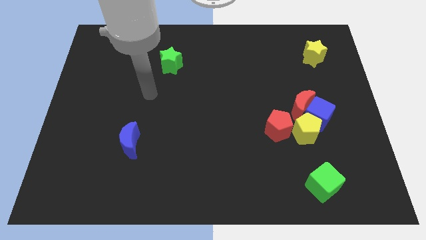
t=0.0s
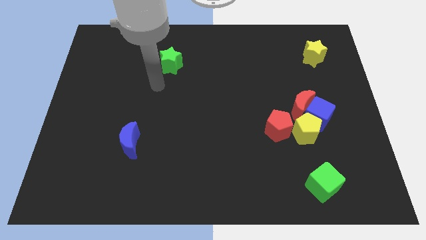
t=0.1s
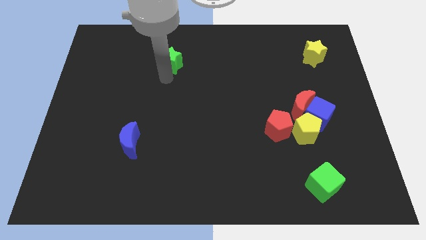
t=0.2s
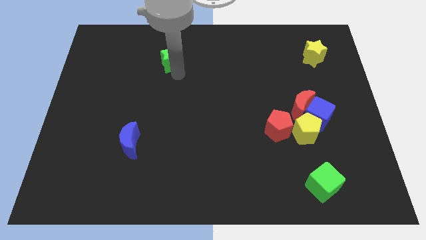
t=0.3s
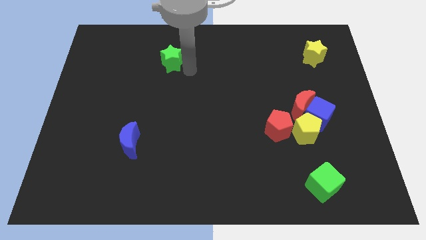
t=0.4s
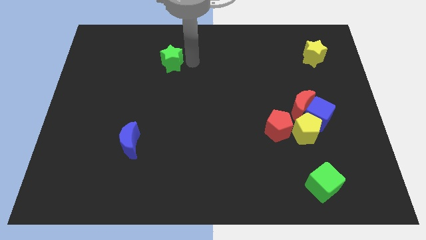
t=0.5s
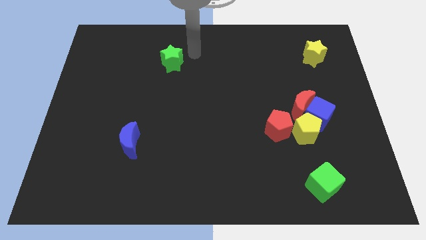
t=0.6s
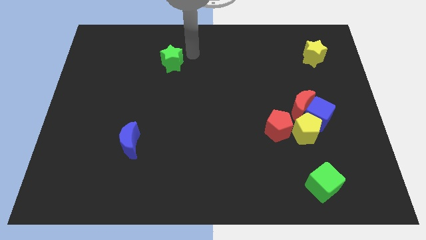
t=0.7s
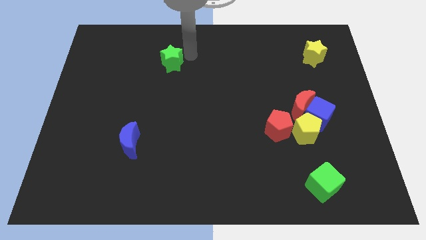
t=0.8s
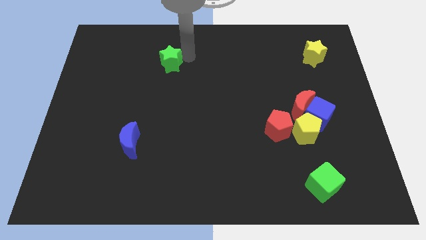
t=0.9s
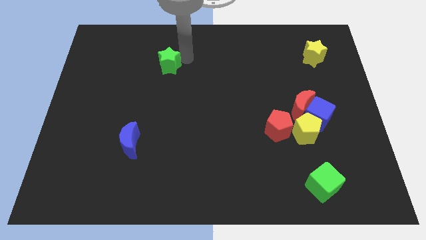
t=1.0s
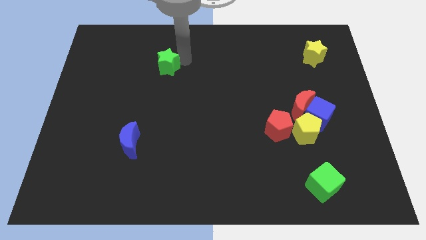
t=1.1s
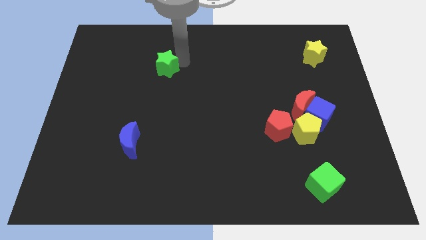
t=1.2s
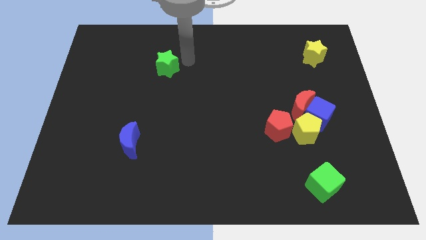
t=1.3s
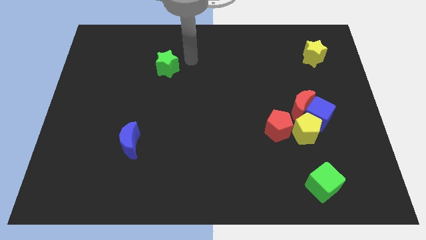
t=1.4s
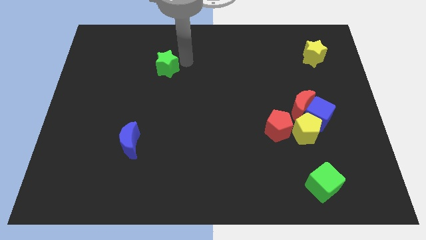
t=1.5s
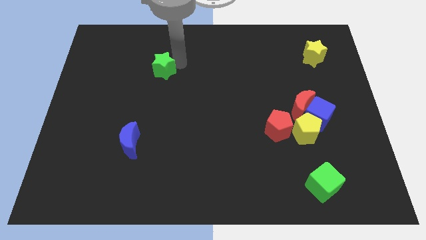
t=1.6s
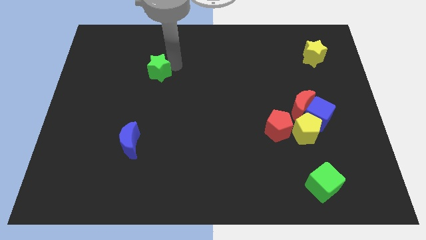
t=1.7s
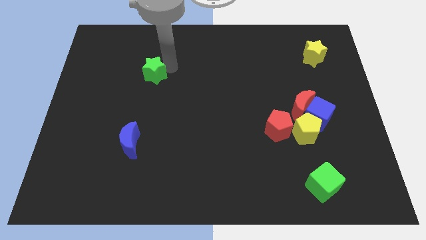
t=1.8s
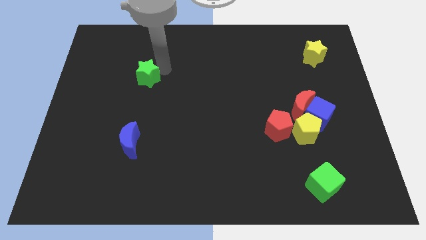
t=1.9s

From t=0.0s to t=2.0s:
slightly move the green star downwards and left

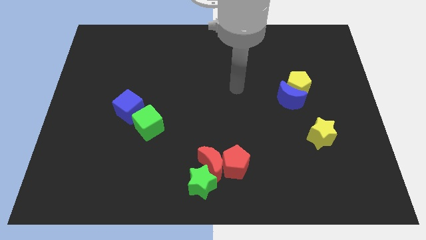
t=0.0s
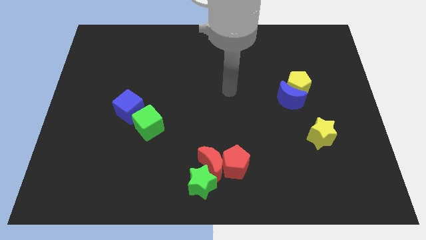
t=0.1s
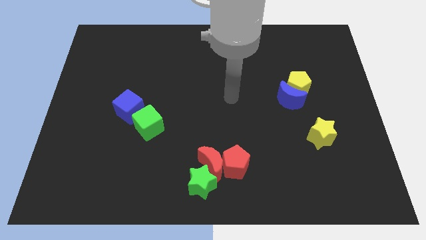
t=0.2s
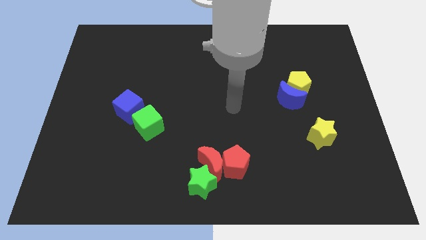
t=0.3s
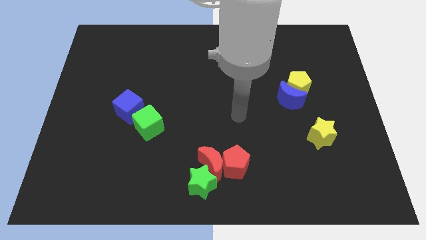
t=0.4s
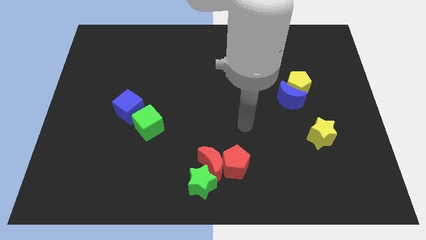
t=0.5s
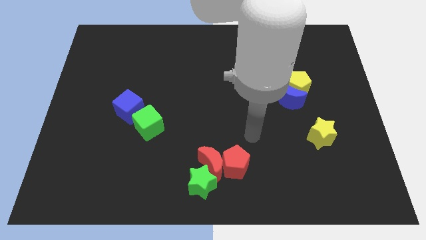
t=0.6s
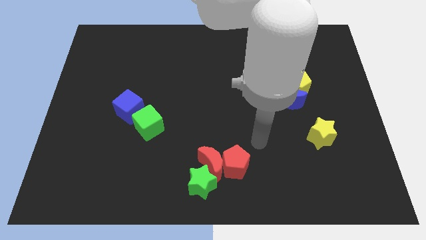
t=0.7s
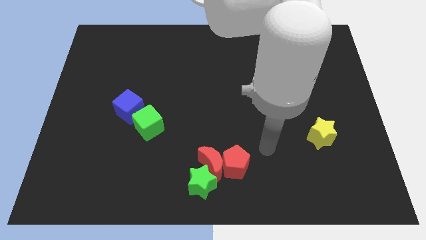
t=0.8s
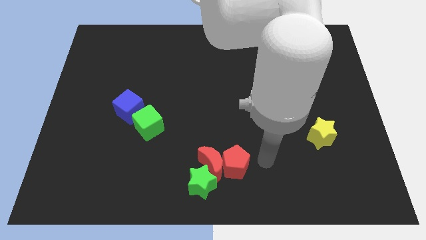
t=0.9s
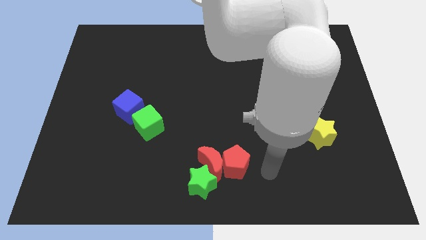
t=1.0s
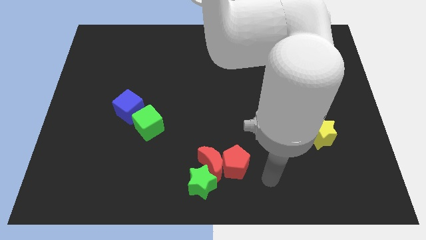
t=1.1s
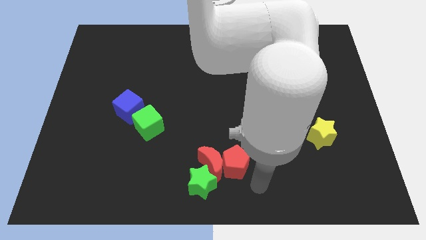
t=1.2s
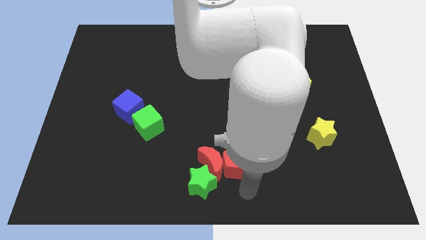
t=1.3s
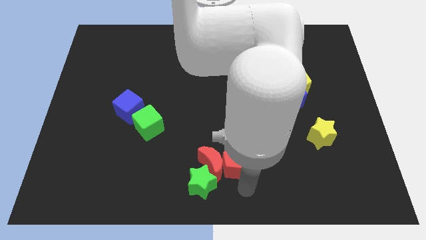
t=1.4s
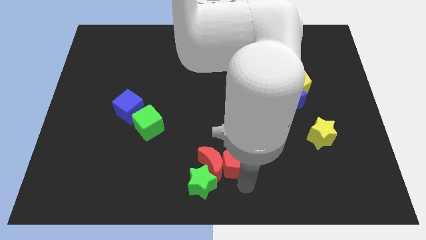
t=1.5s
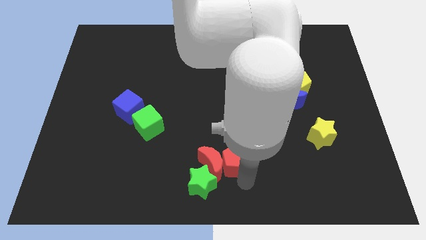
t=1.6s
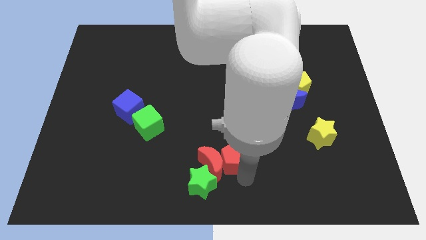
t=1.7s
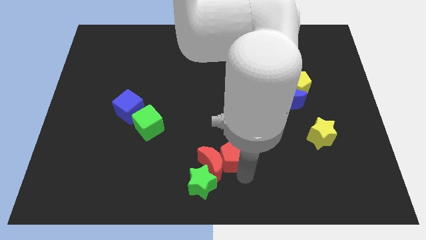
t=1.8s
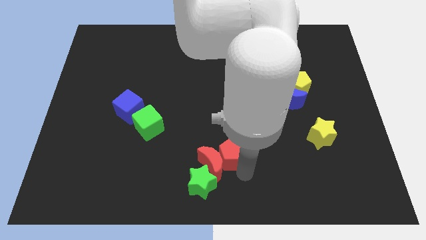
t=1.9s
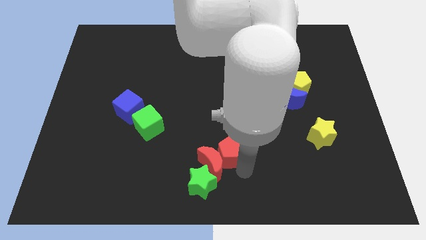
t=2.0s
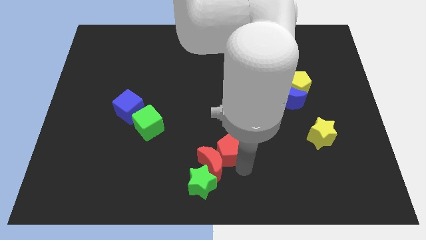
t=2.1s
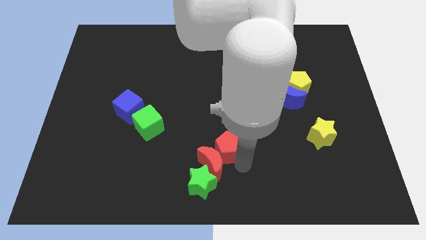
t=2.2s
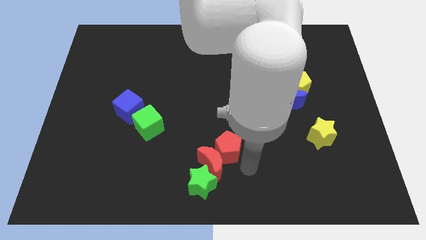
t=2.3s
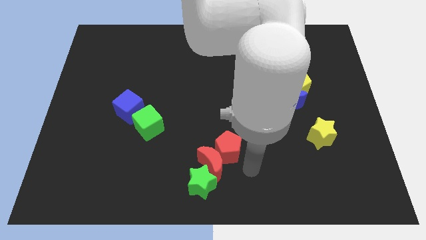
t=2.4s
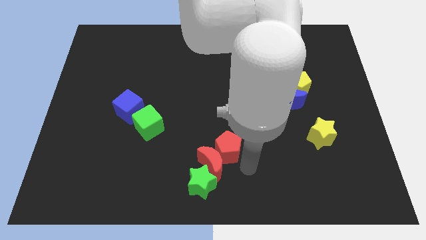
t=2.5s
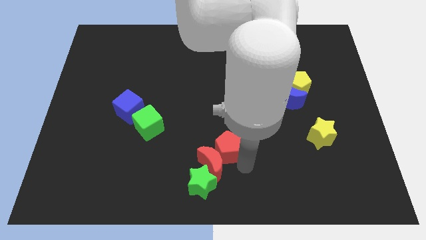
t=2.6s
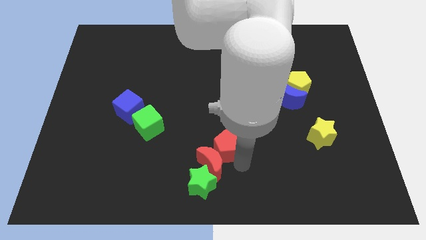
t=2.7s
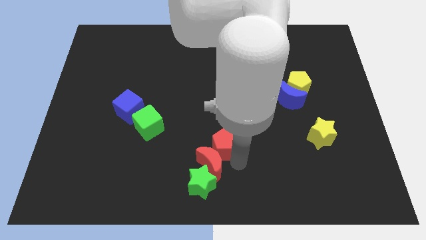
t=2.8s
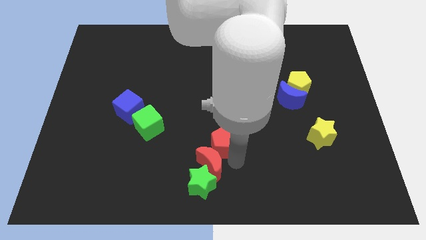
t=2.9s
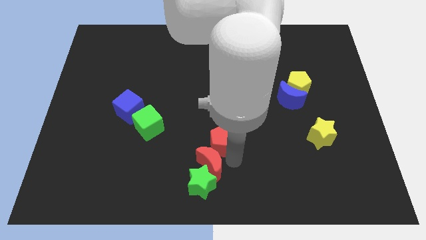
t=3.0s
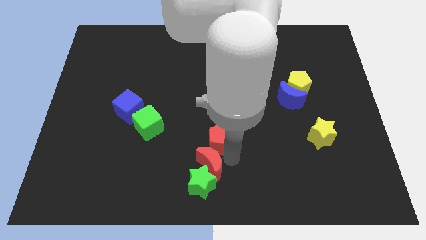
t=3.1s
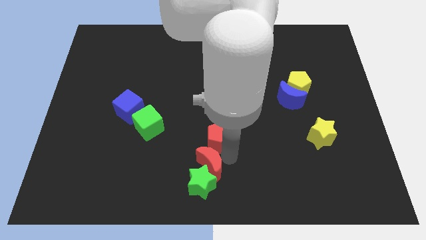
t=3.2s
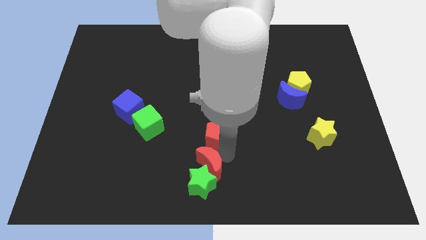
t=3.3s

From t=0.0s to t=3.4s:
slide the red pentagon slightly diagonally upwards and to the left

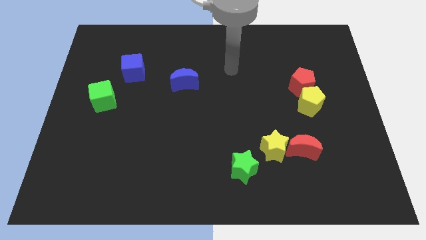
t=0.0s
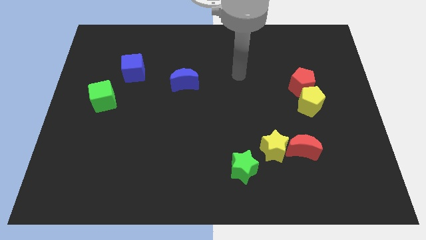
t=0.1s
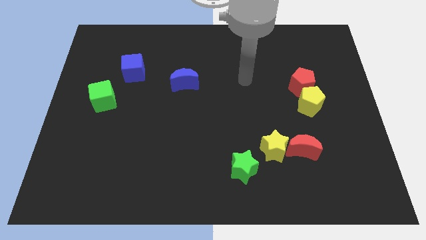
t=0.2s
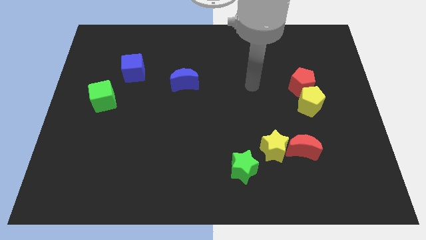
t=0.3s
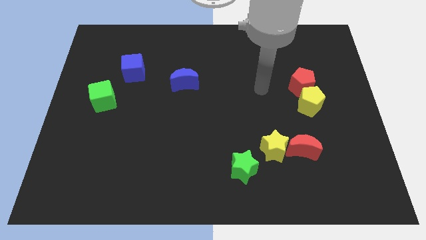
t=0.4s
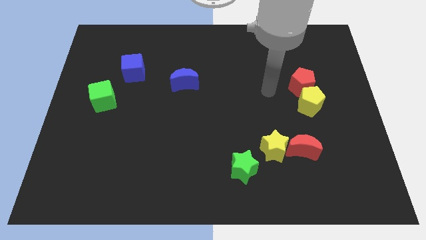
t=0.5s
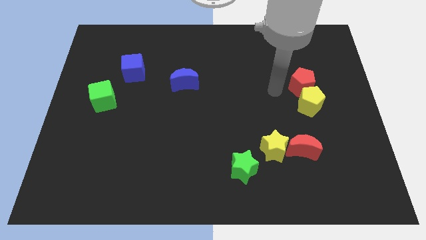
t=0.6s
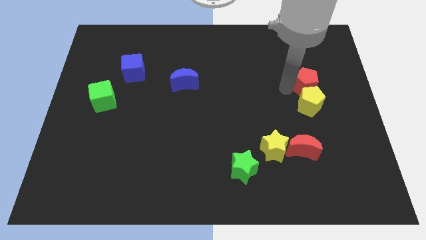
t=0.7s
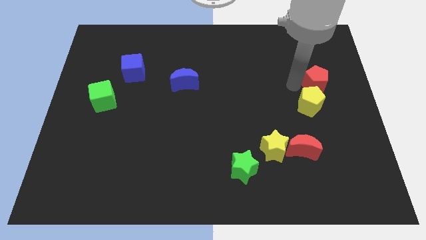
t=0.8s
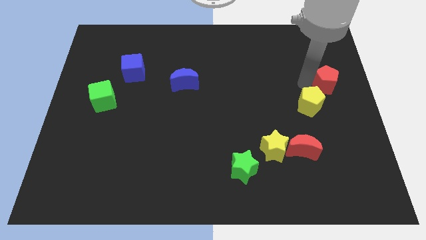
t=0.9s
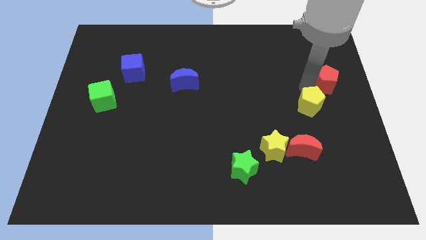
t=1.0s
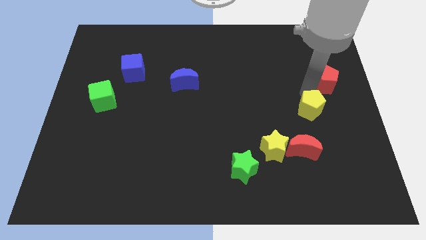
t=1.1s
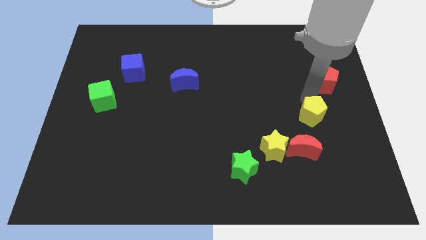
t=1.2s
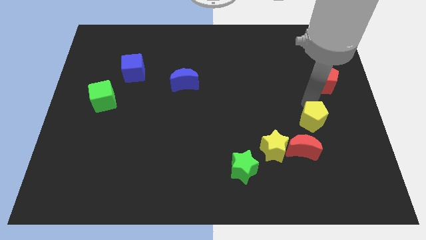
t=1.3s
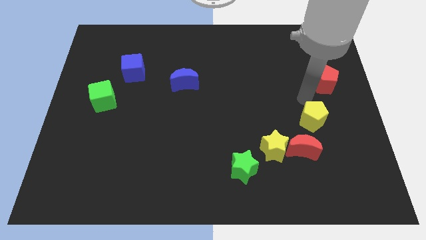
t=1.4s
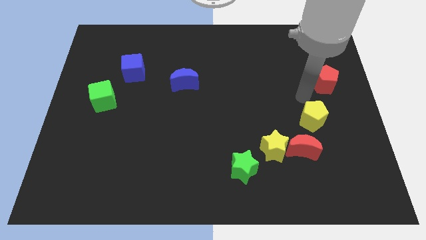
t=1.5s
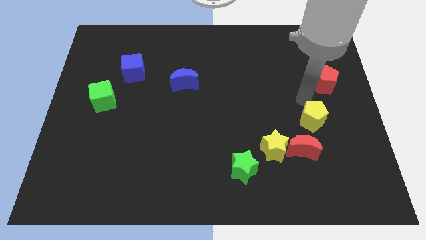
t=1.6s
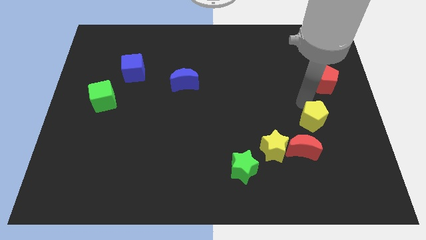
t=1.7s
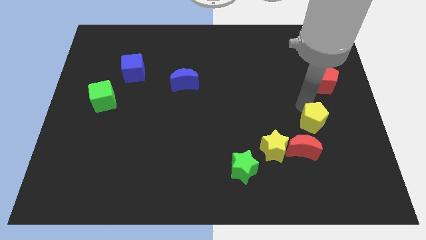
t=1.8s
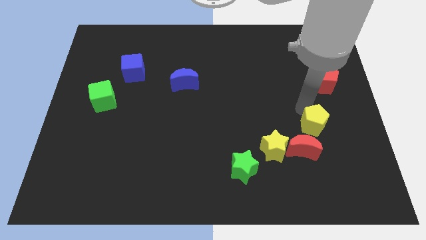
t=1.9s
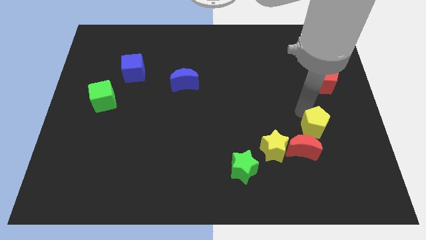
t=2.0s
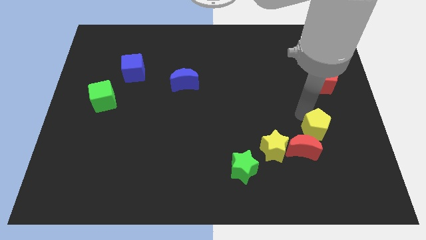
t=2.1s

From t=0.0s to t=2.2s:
slightly push the yellow pentagon downwards

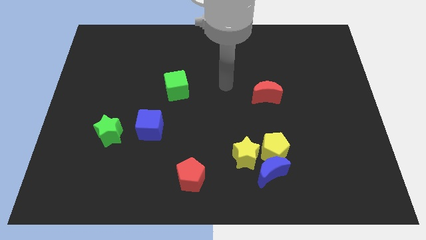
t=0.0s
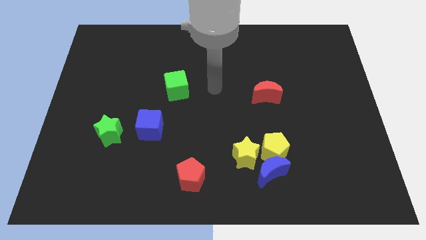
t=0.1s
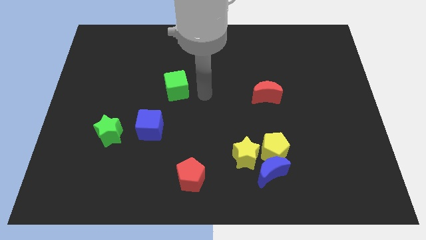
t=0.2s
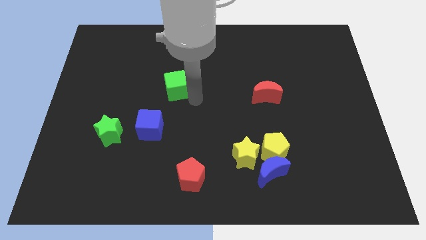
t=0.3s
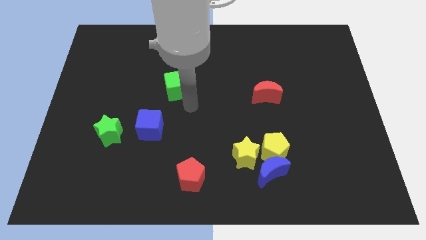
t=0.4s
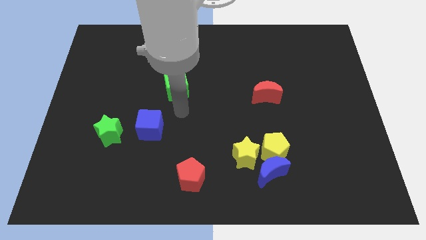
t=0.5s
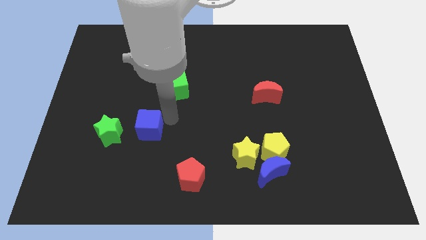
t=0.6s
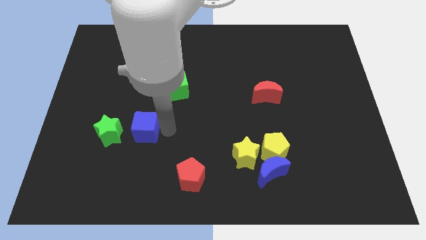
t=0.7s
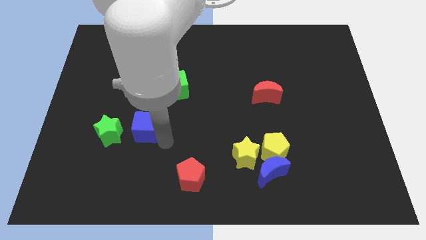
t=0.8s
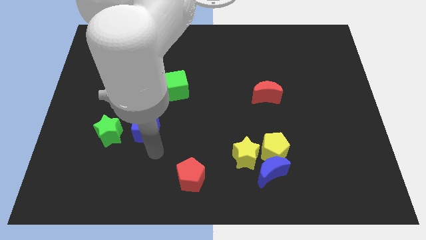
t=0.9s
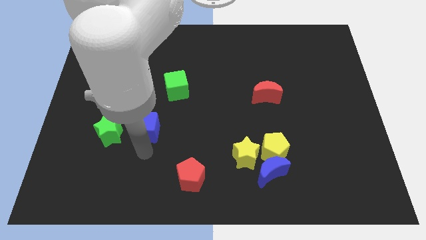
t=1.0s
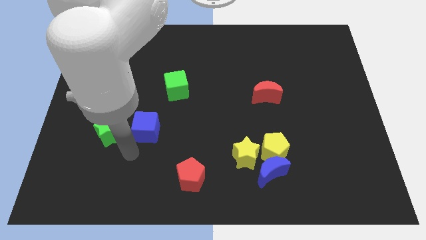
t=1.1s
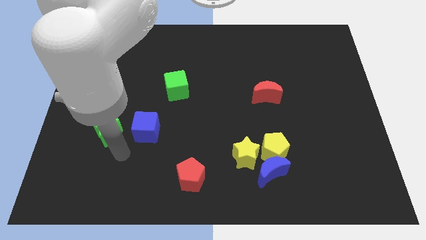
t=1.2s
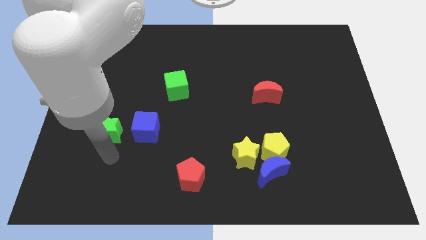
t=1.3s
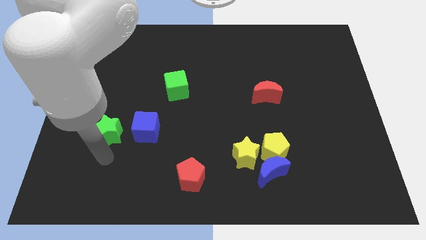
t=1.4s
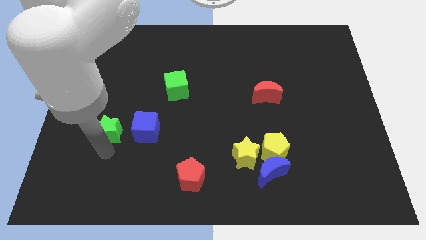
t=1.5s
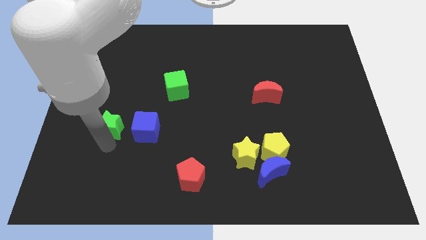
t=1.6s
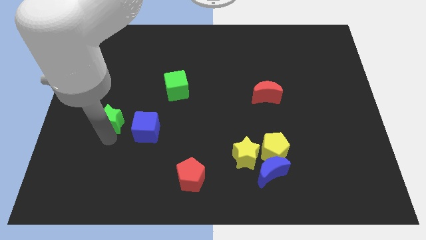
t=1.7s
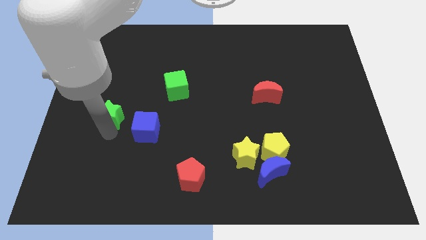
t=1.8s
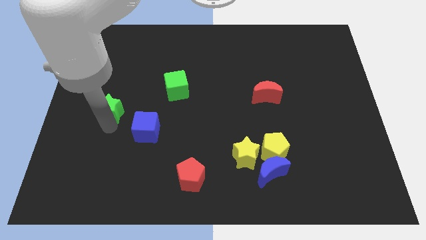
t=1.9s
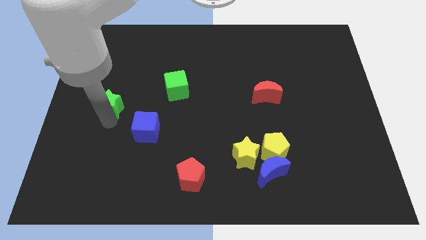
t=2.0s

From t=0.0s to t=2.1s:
move the green star a bit up
